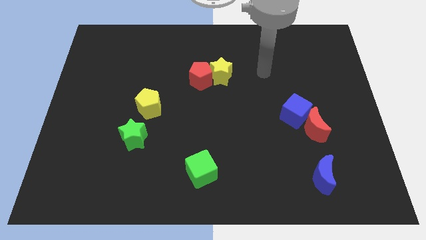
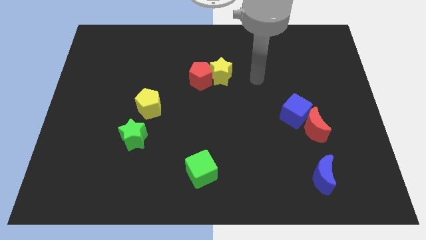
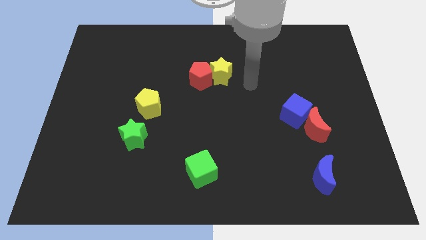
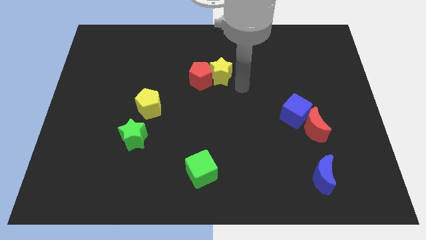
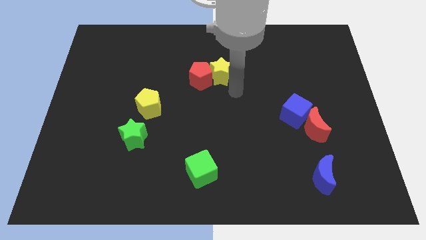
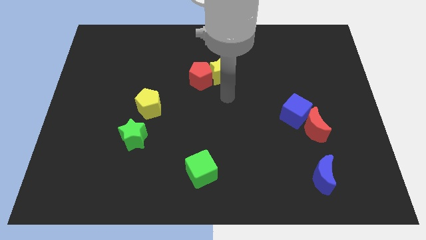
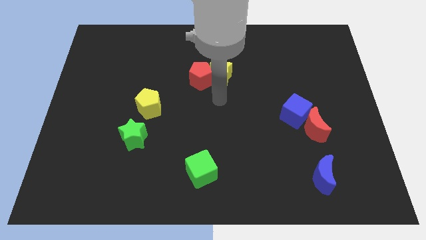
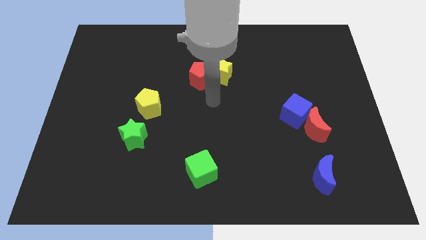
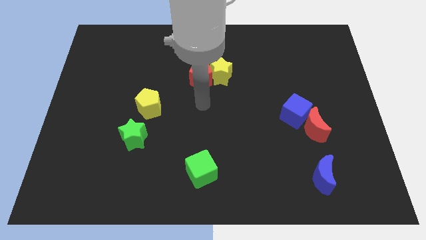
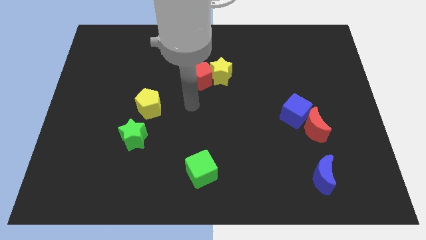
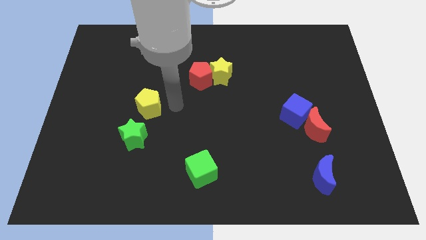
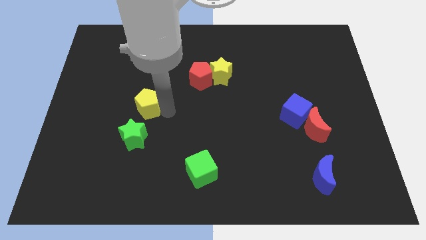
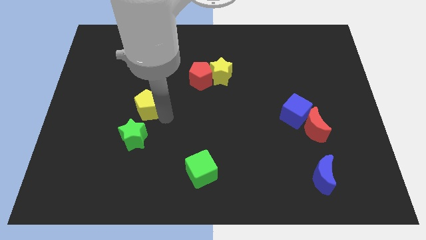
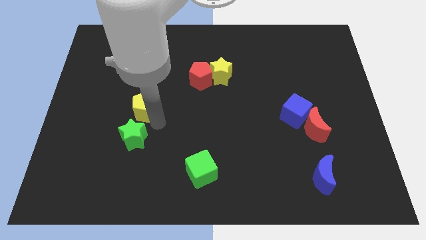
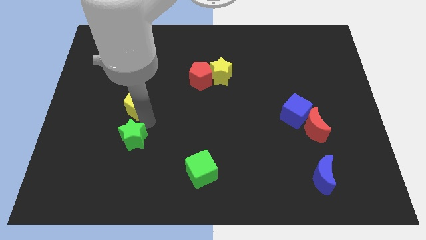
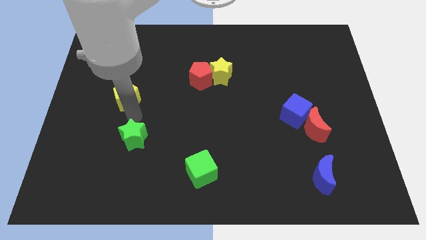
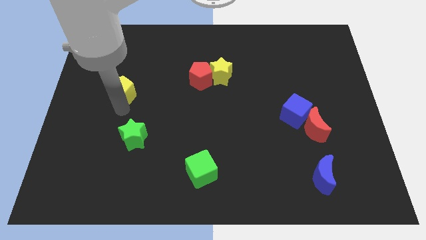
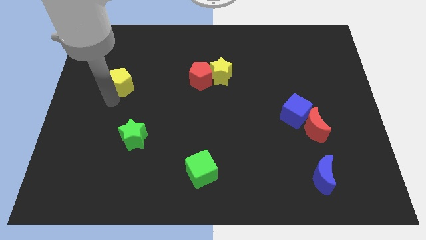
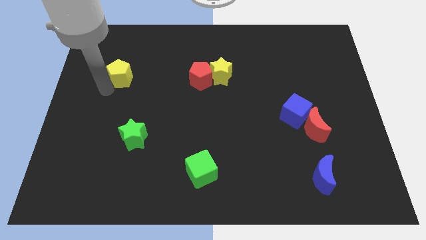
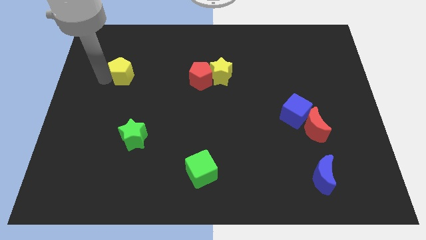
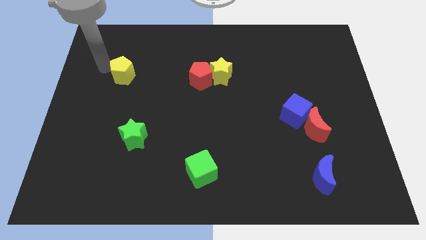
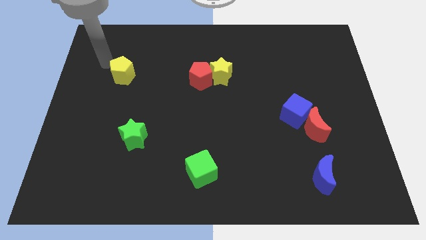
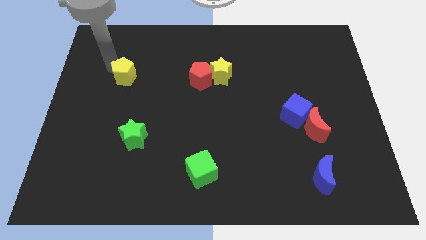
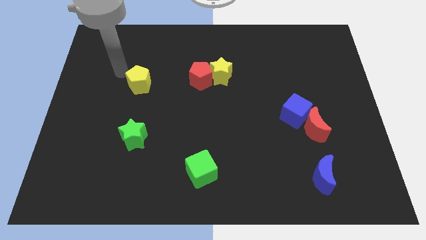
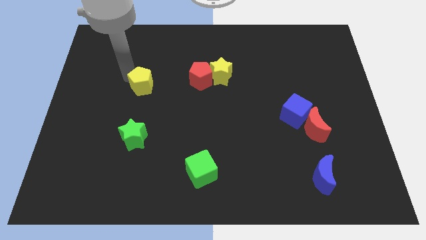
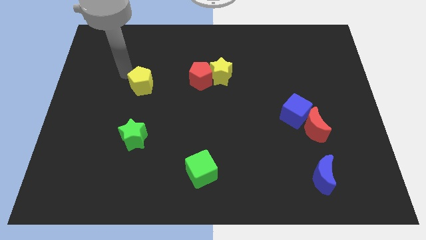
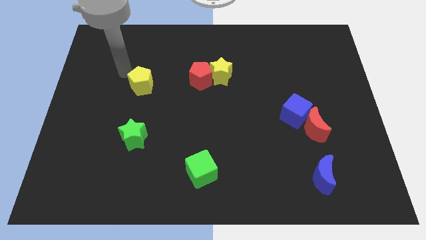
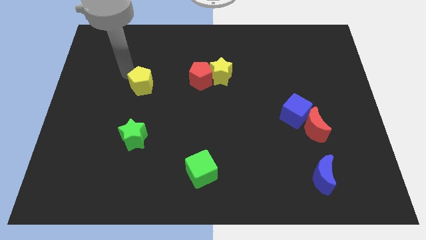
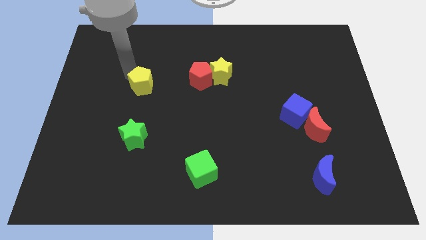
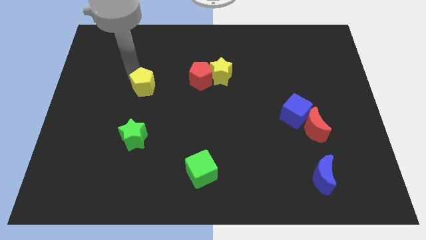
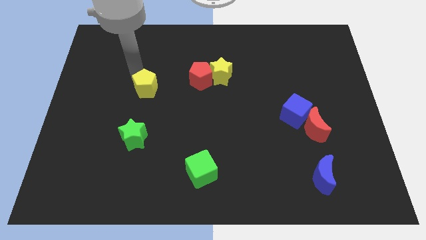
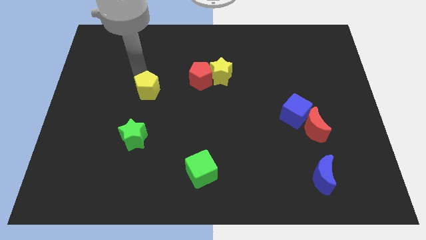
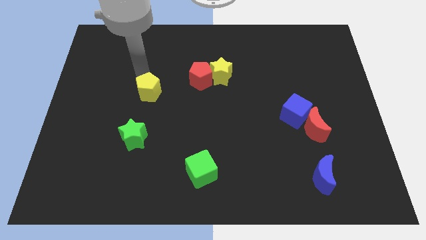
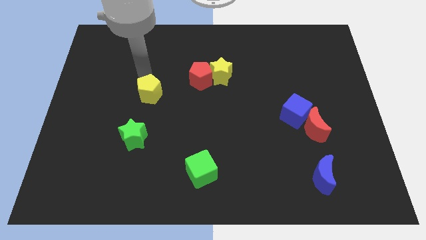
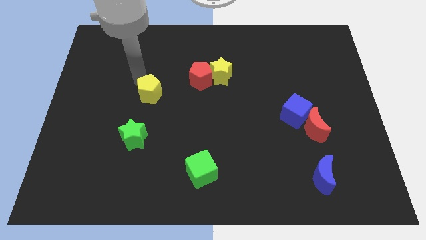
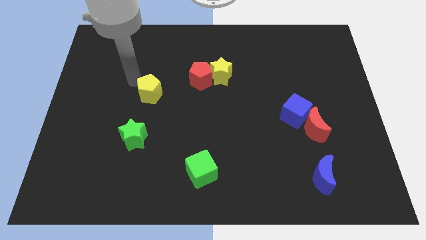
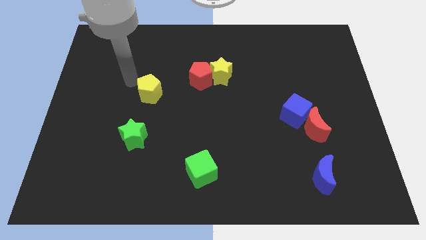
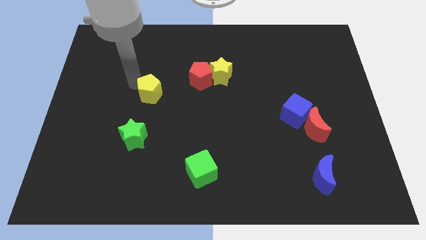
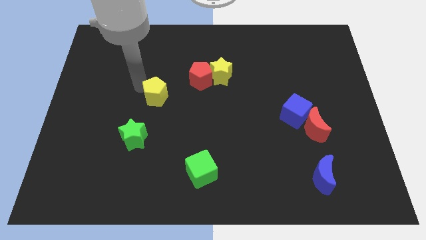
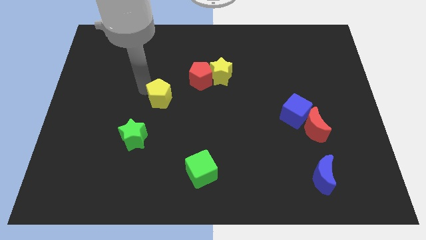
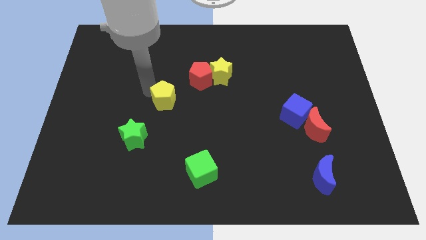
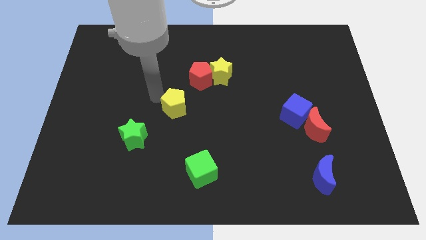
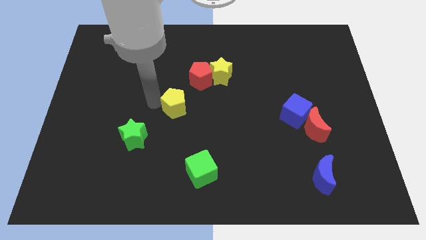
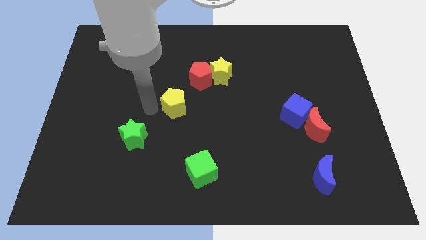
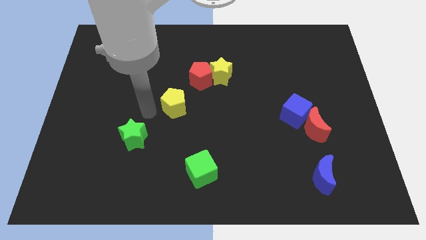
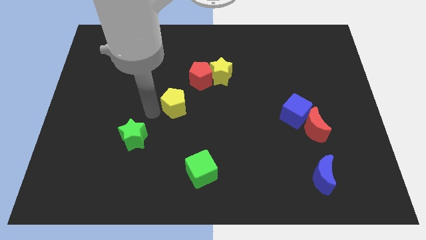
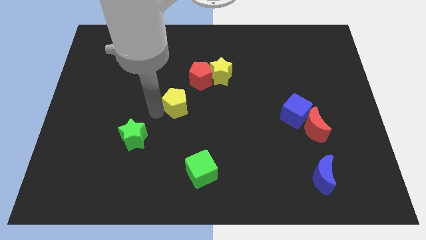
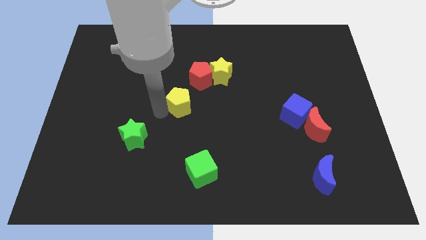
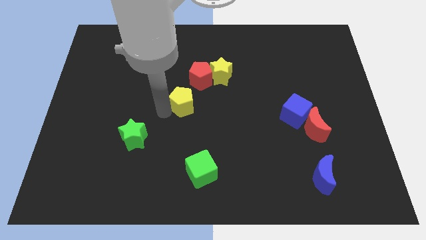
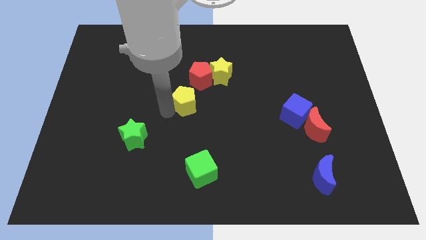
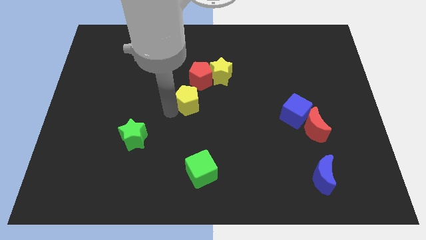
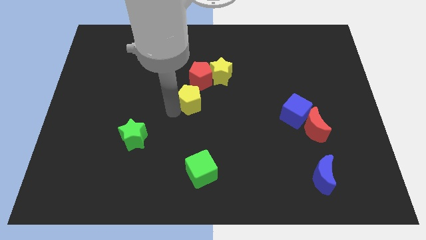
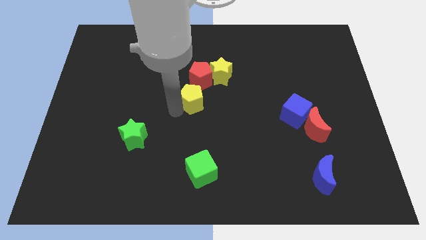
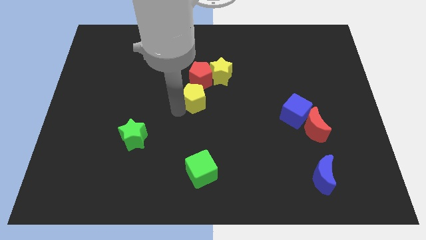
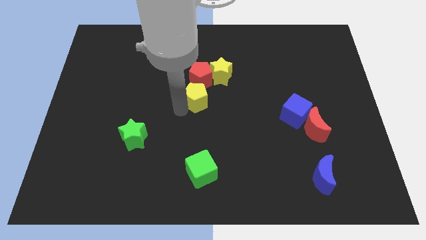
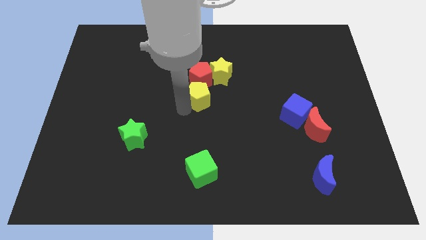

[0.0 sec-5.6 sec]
put the yellow pentagon to the bottom right side of the red pentagon

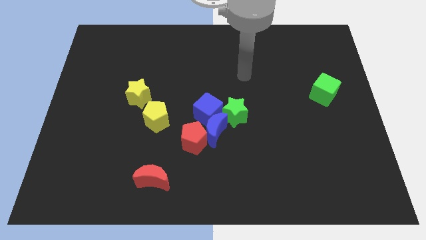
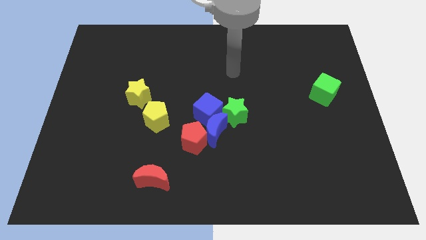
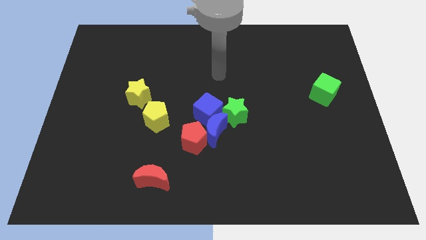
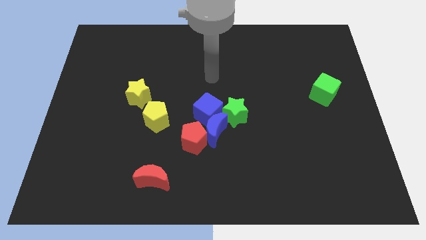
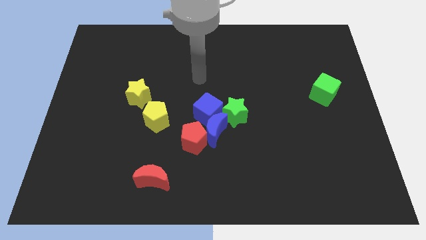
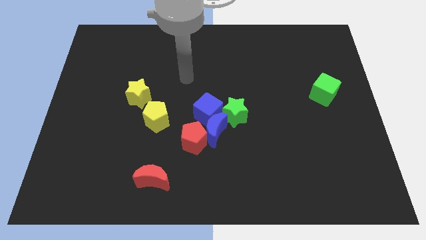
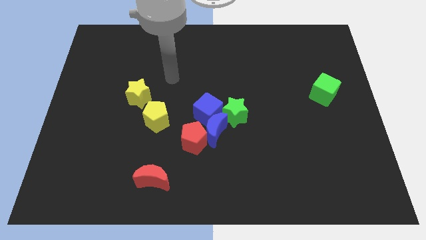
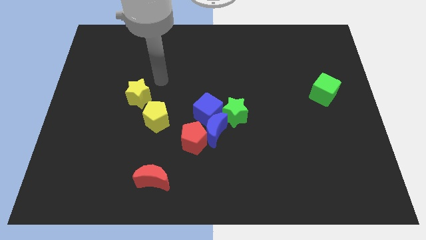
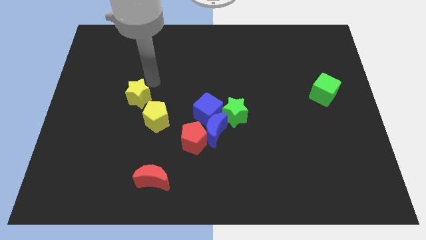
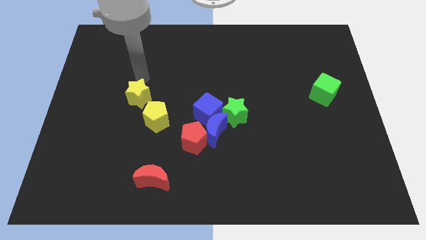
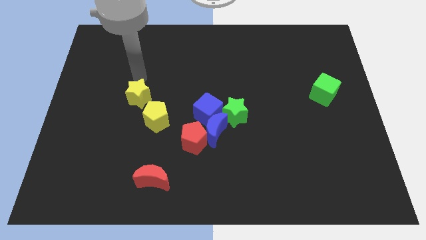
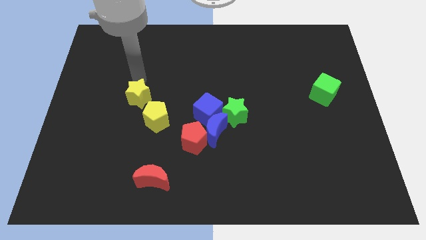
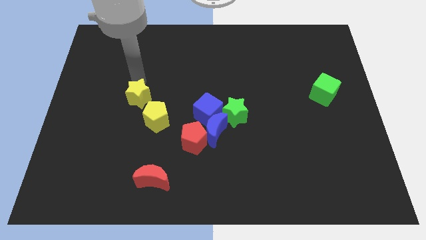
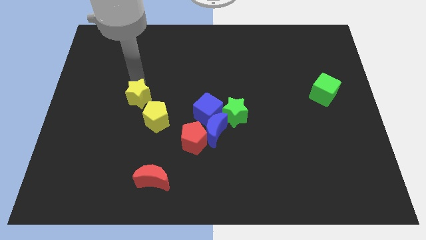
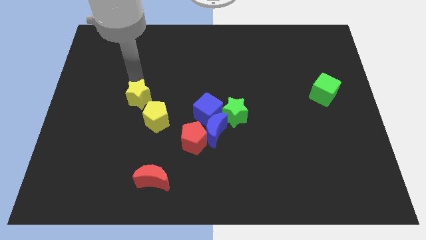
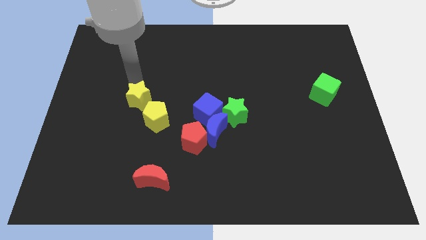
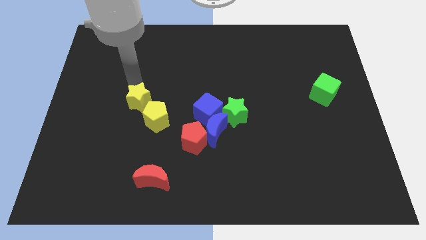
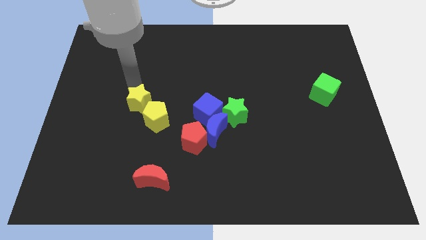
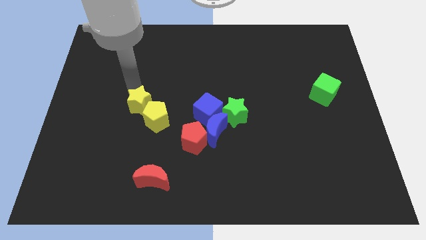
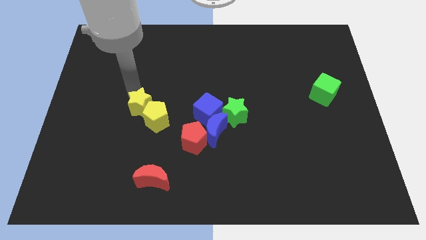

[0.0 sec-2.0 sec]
put the yellow star left of the blue cube

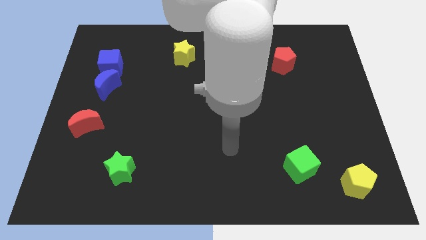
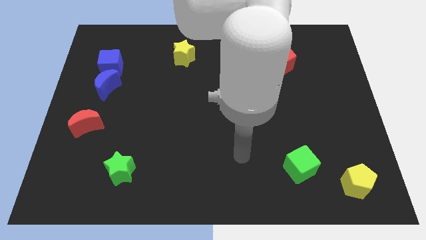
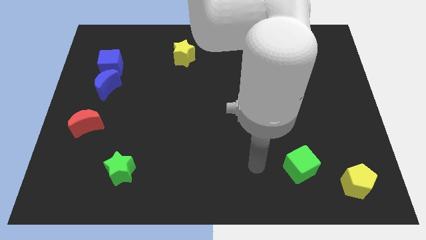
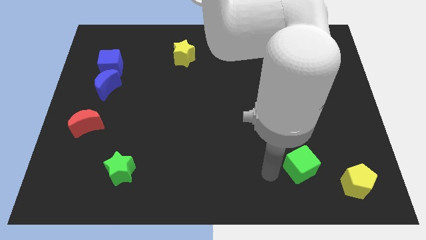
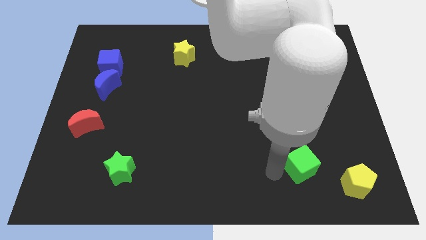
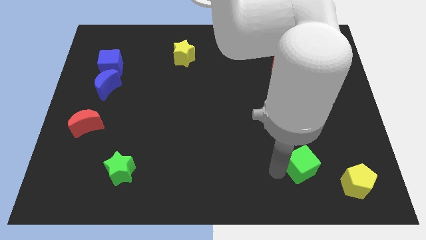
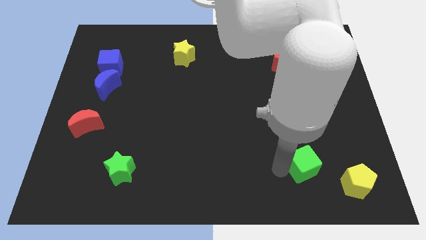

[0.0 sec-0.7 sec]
move the green cube to the top left side of the yellow pentagon
